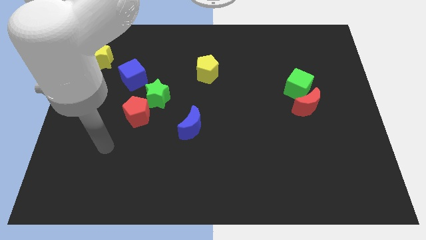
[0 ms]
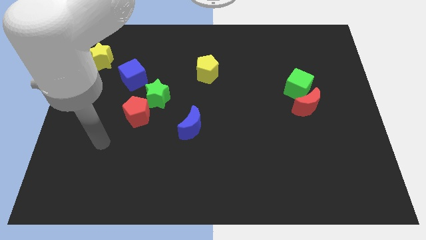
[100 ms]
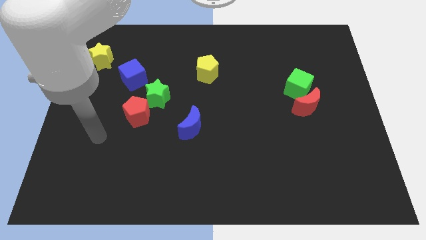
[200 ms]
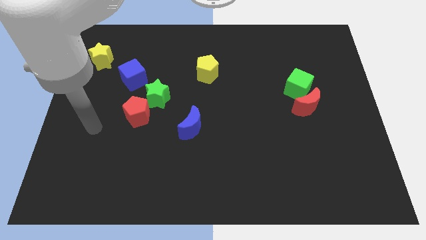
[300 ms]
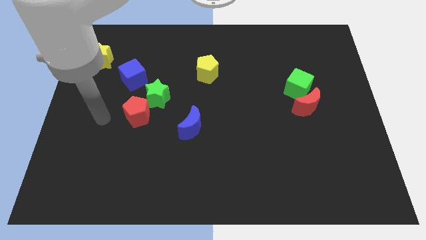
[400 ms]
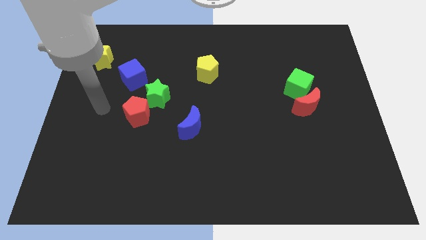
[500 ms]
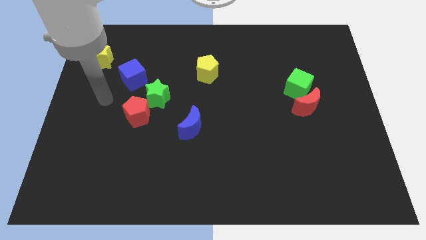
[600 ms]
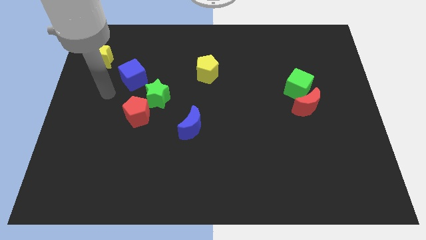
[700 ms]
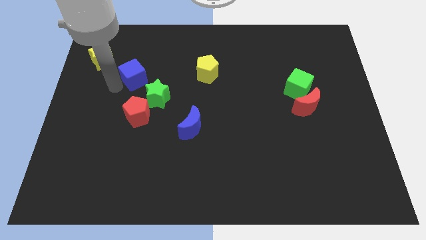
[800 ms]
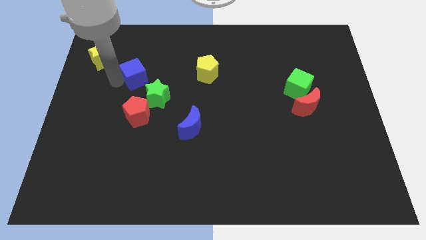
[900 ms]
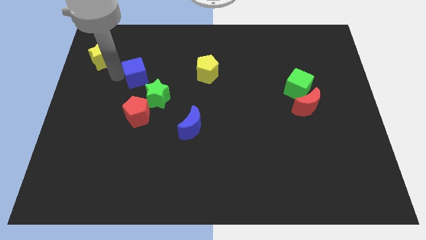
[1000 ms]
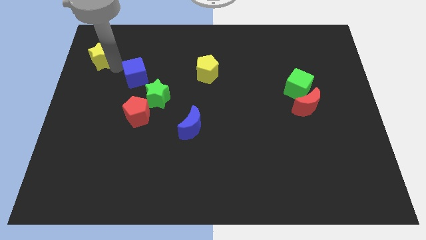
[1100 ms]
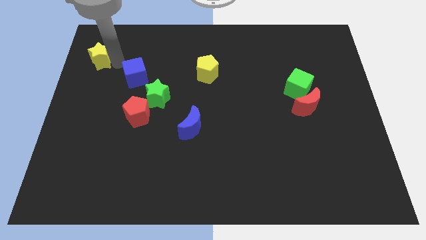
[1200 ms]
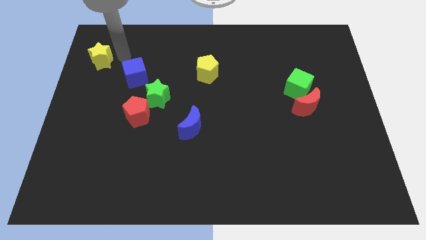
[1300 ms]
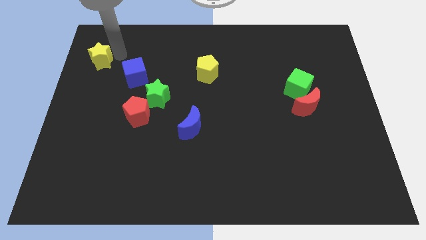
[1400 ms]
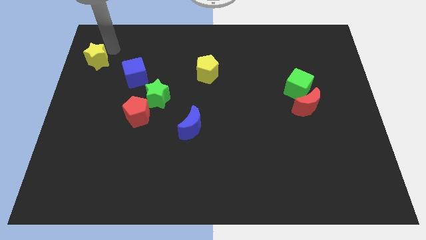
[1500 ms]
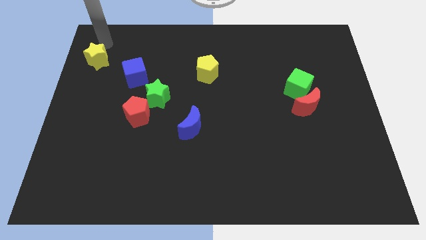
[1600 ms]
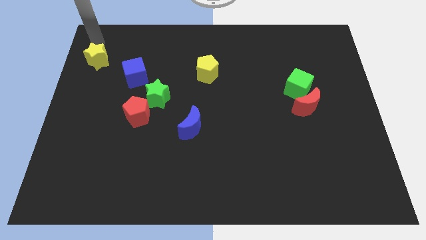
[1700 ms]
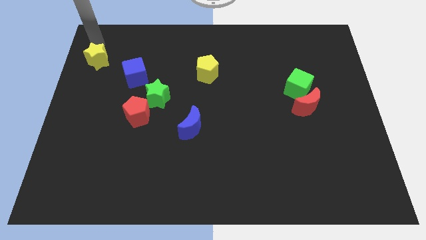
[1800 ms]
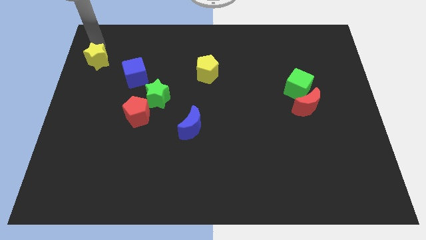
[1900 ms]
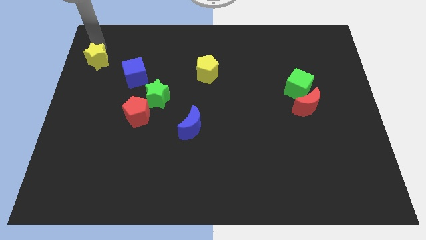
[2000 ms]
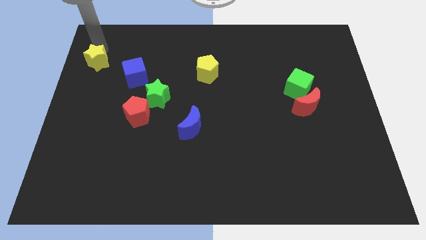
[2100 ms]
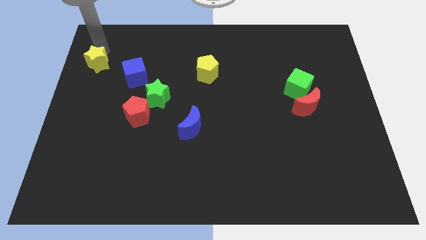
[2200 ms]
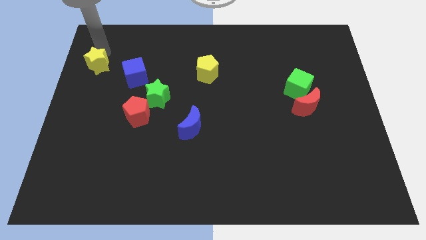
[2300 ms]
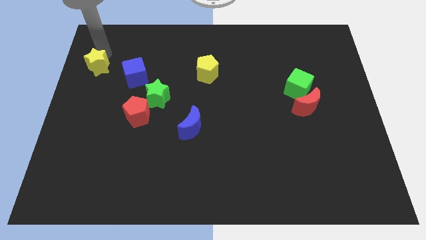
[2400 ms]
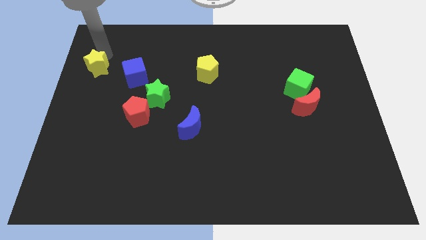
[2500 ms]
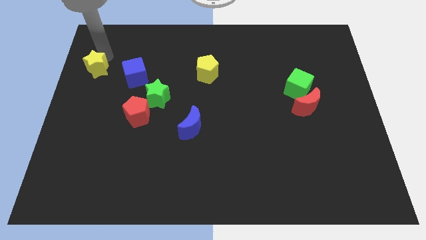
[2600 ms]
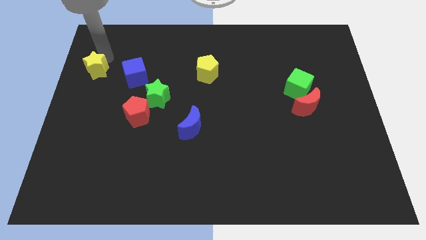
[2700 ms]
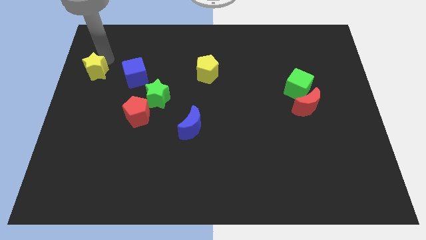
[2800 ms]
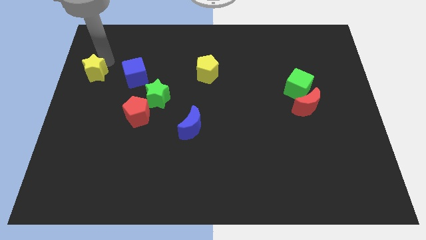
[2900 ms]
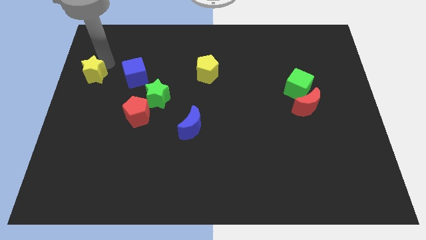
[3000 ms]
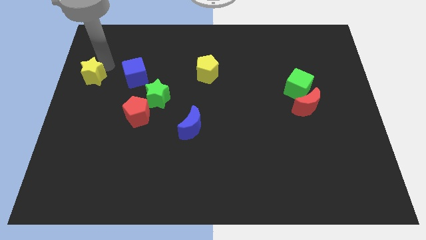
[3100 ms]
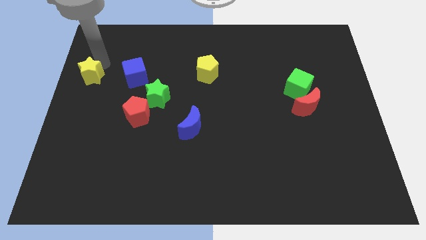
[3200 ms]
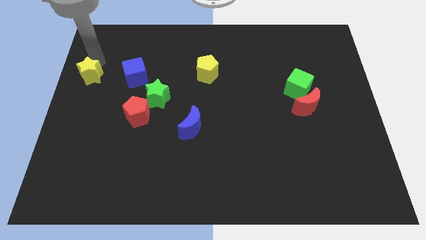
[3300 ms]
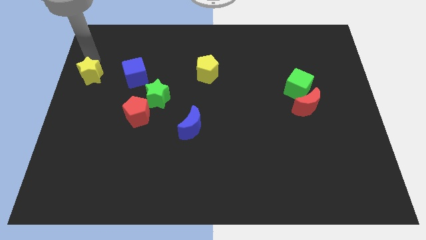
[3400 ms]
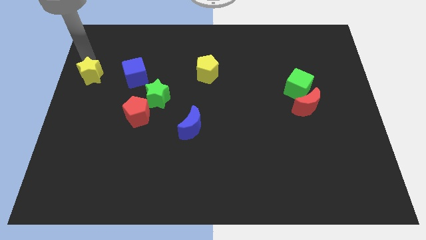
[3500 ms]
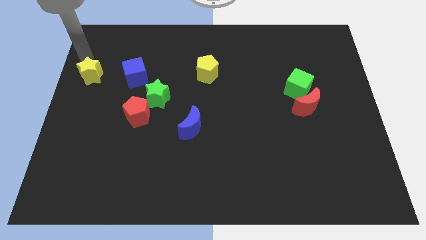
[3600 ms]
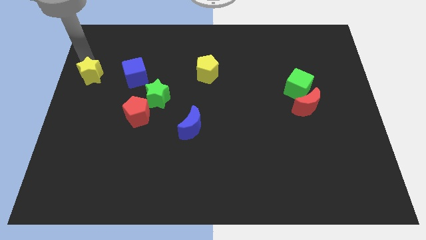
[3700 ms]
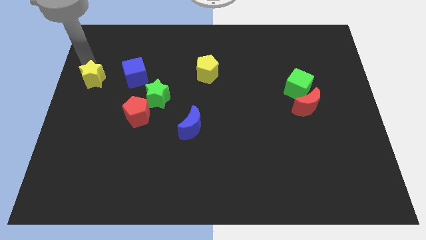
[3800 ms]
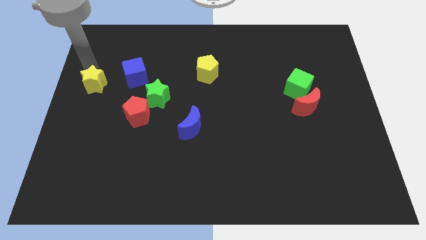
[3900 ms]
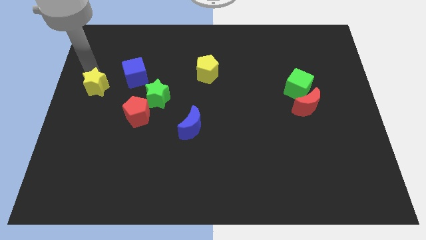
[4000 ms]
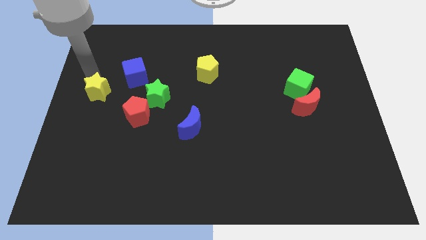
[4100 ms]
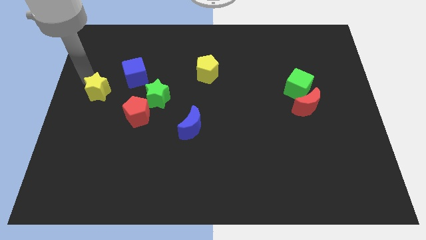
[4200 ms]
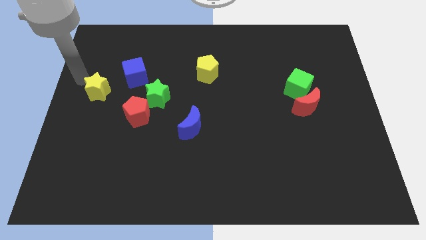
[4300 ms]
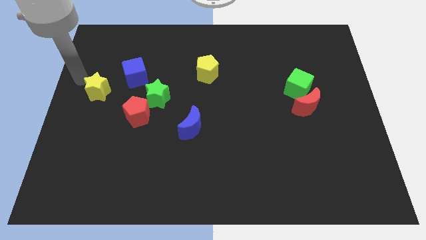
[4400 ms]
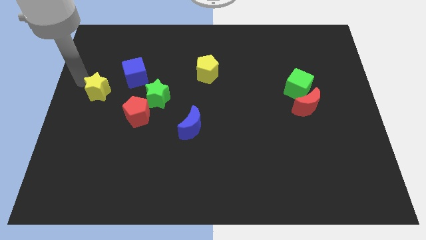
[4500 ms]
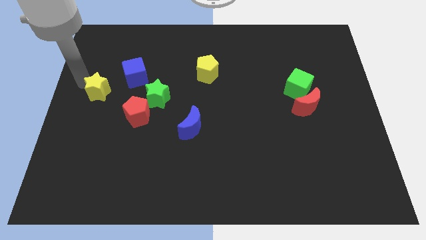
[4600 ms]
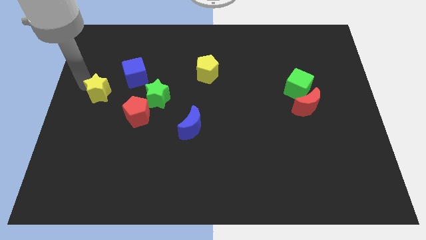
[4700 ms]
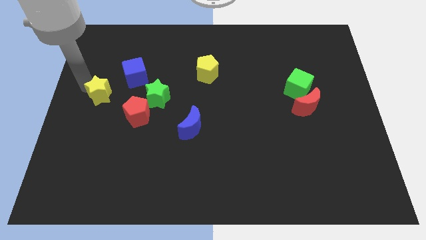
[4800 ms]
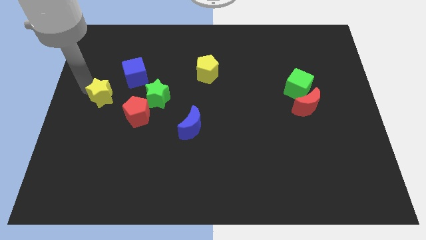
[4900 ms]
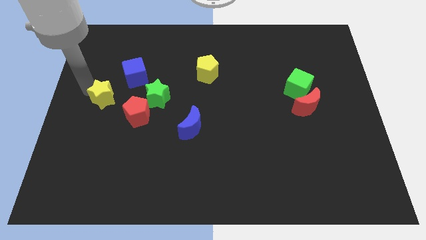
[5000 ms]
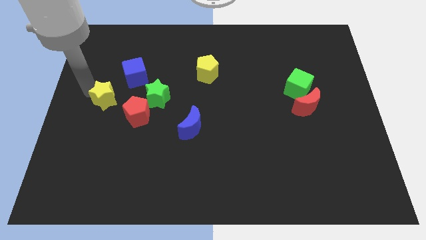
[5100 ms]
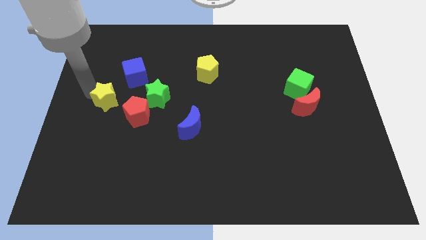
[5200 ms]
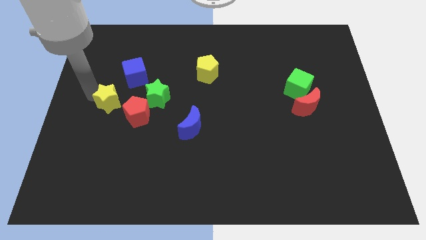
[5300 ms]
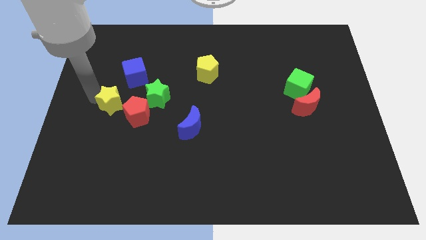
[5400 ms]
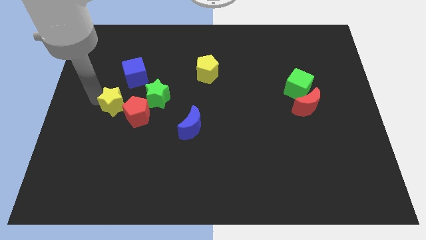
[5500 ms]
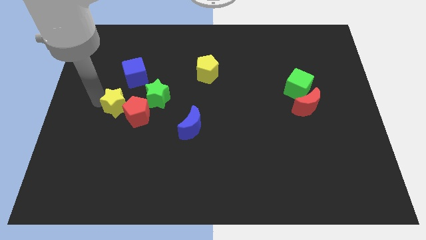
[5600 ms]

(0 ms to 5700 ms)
put the yellow star towards the red pentagon

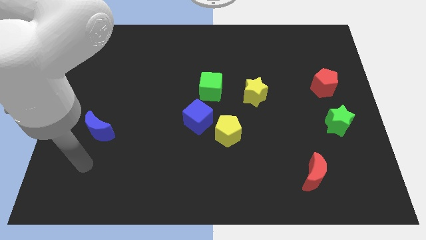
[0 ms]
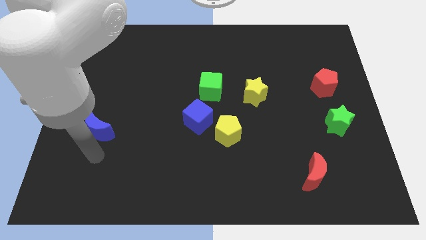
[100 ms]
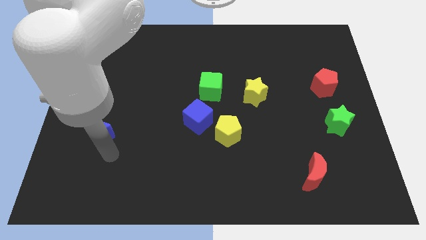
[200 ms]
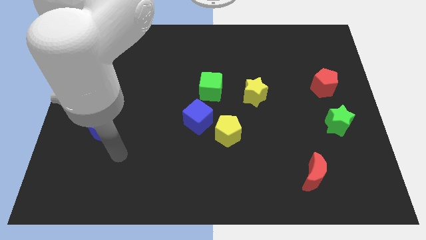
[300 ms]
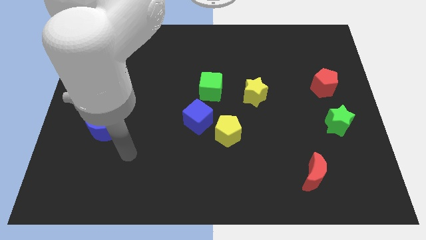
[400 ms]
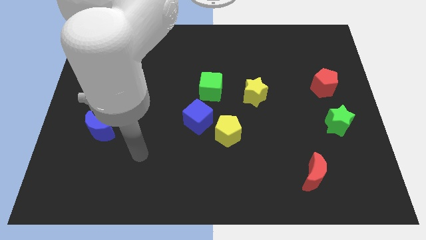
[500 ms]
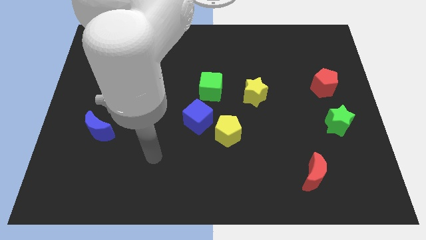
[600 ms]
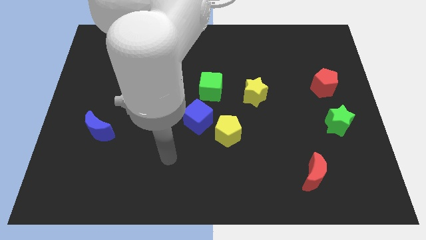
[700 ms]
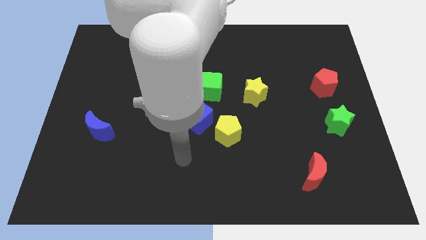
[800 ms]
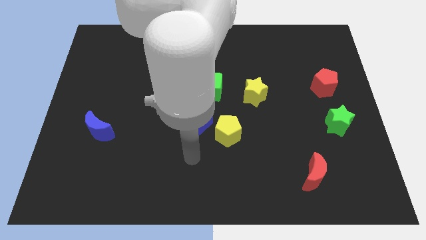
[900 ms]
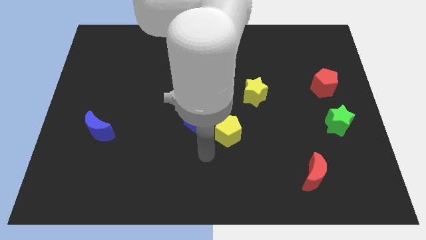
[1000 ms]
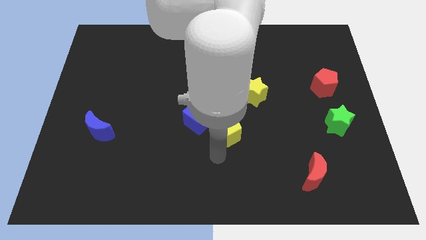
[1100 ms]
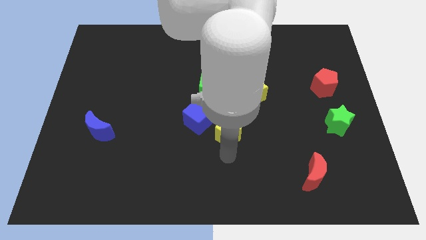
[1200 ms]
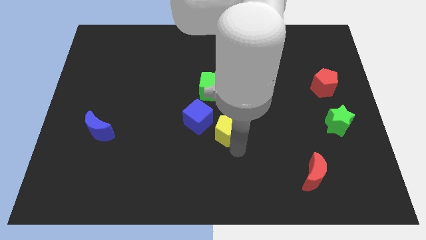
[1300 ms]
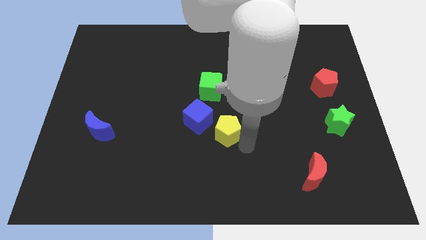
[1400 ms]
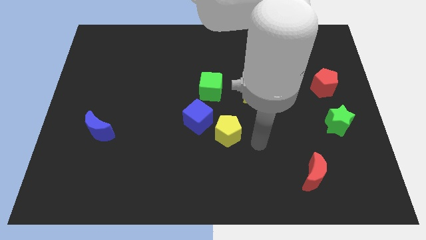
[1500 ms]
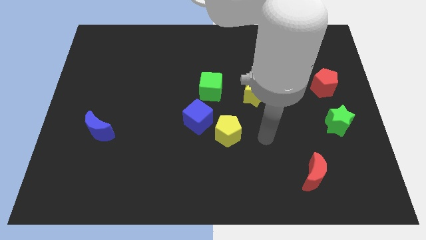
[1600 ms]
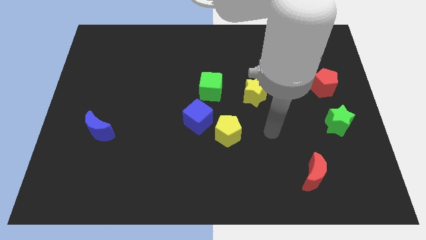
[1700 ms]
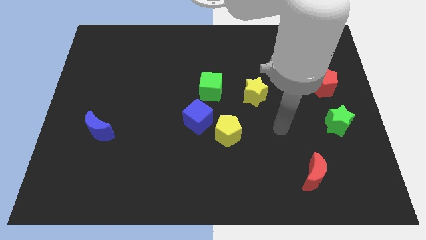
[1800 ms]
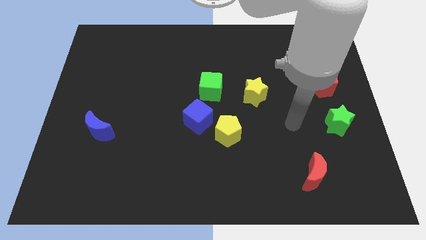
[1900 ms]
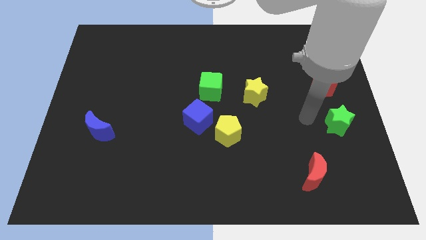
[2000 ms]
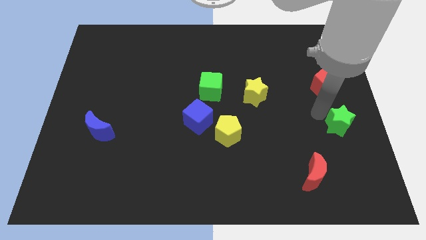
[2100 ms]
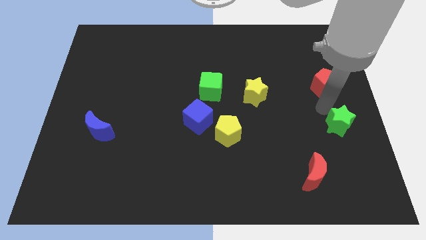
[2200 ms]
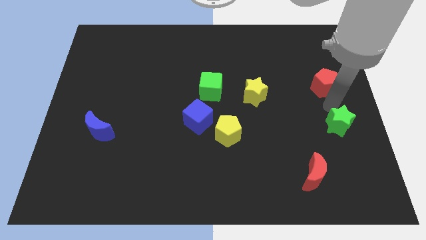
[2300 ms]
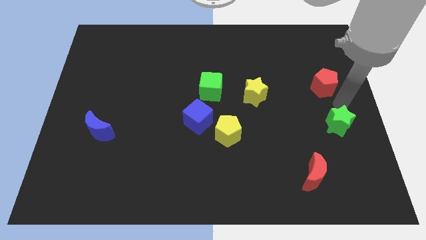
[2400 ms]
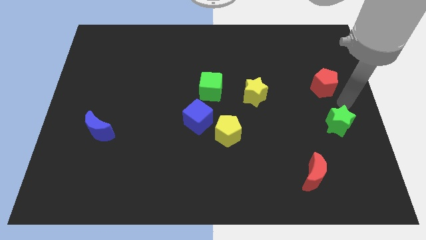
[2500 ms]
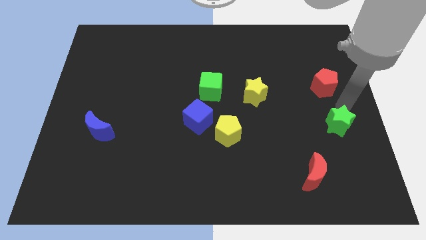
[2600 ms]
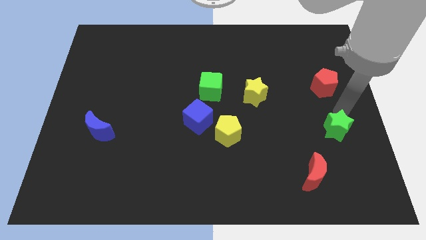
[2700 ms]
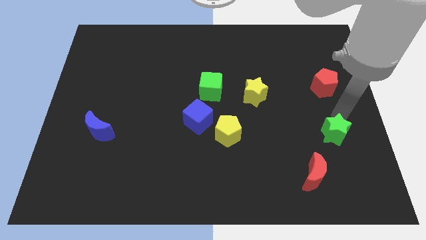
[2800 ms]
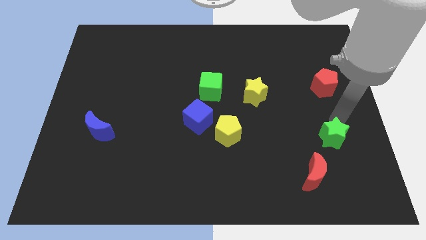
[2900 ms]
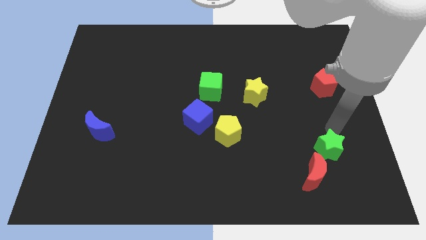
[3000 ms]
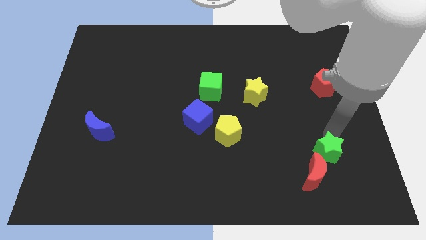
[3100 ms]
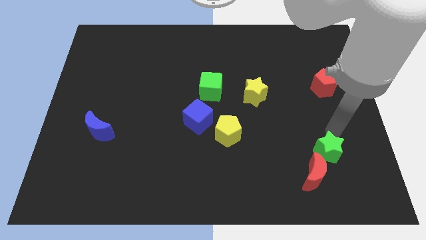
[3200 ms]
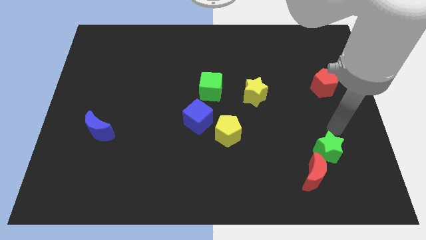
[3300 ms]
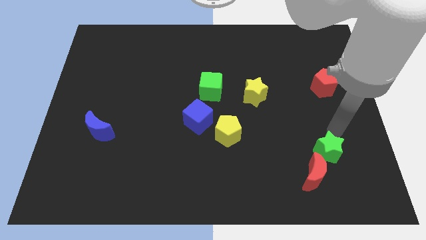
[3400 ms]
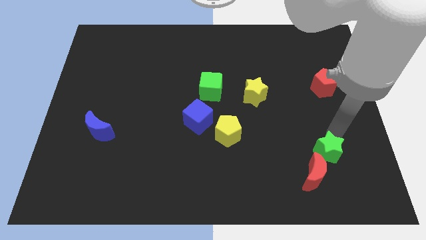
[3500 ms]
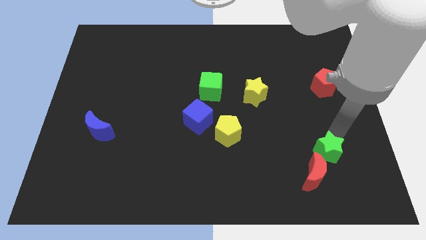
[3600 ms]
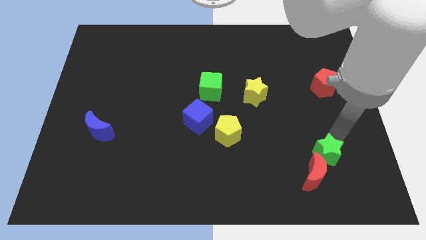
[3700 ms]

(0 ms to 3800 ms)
move the green star towards the red moon
